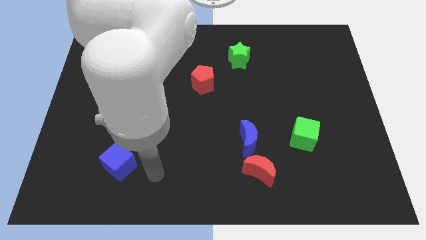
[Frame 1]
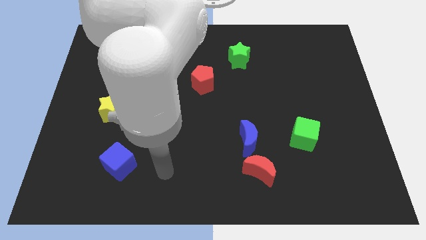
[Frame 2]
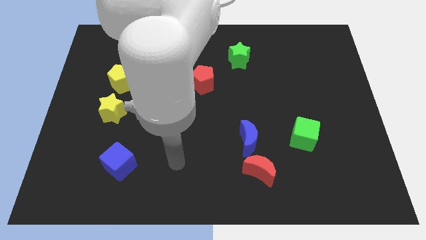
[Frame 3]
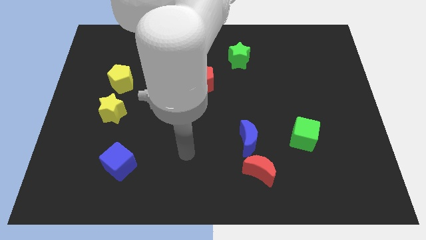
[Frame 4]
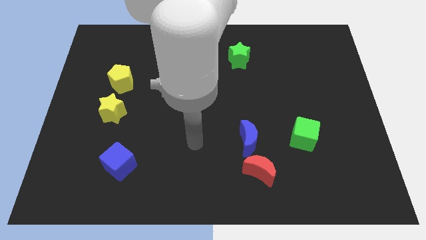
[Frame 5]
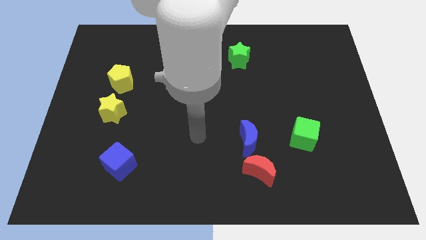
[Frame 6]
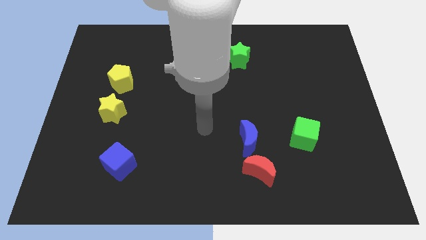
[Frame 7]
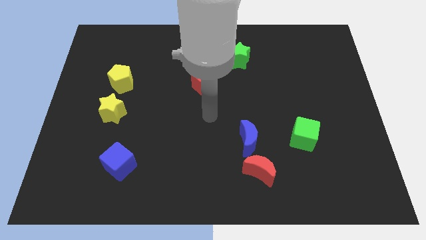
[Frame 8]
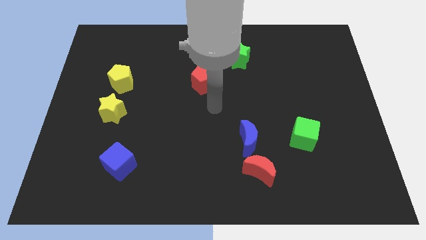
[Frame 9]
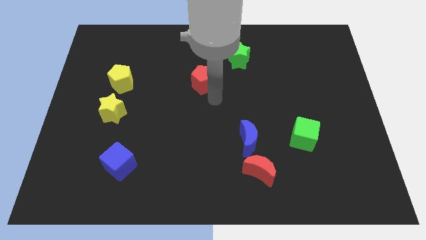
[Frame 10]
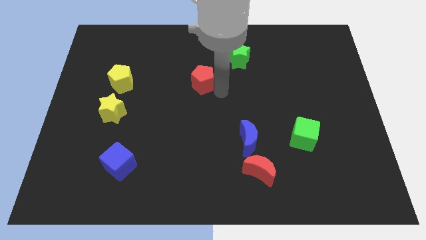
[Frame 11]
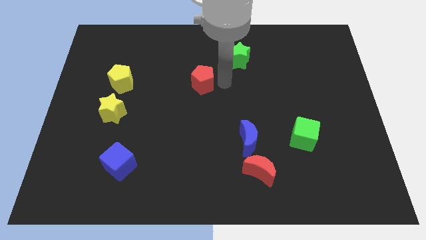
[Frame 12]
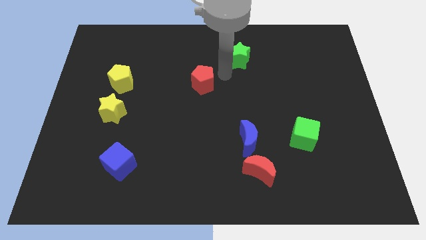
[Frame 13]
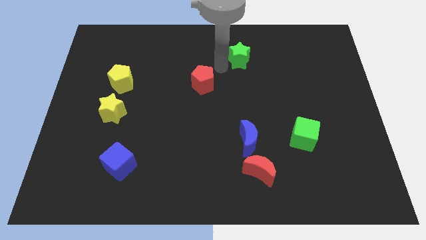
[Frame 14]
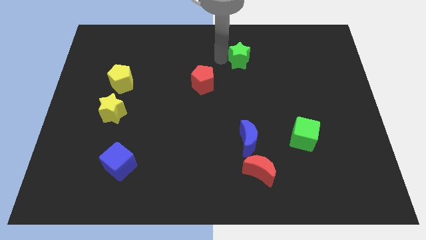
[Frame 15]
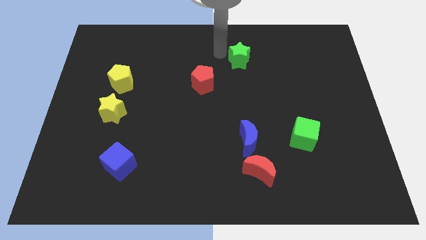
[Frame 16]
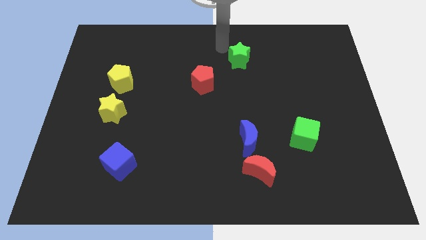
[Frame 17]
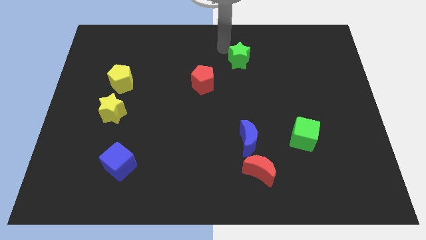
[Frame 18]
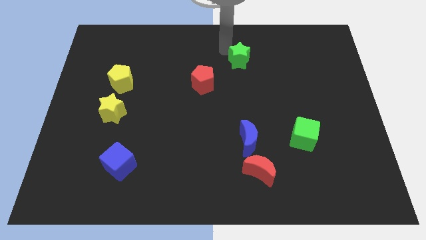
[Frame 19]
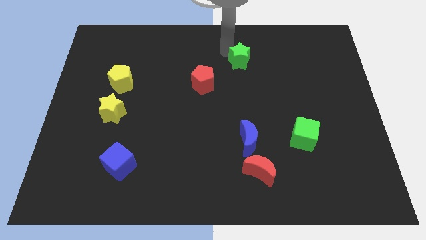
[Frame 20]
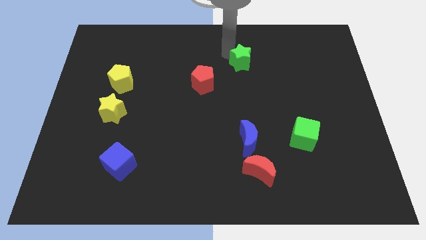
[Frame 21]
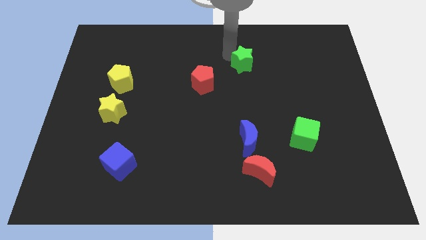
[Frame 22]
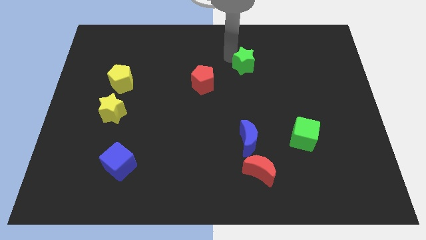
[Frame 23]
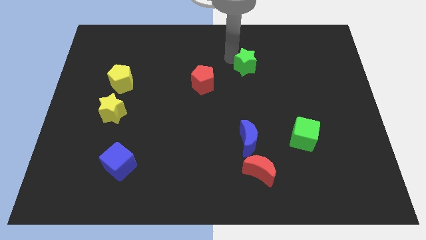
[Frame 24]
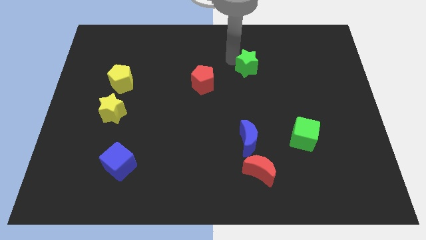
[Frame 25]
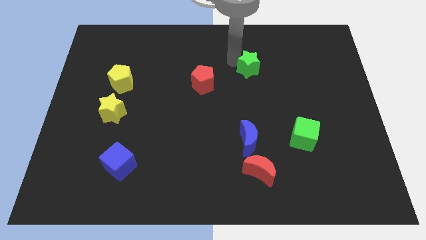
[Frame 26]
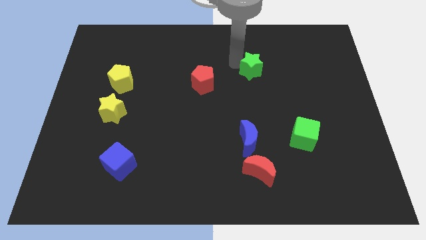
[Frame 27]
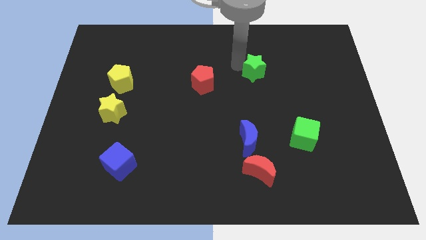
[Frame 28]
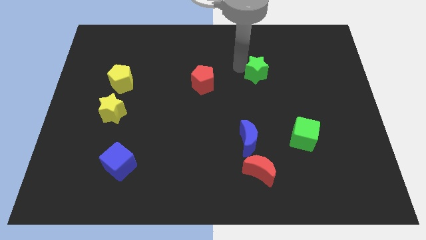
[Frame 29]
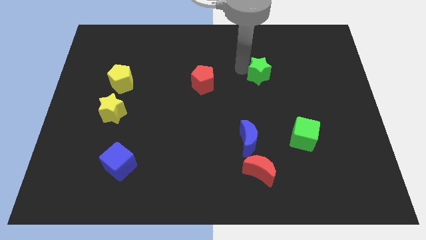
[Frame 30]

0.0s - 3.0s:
push the green star somewhat diagonally downwards and right

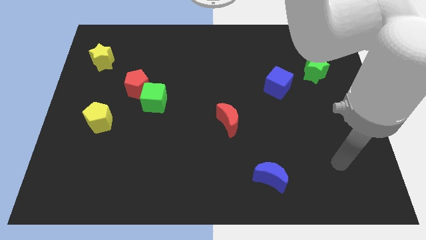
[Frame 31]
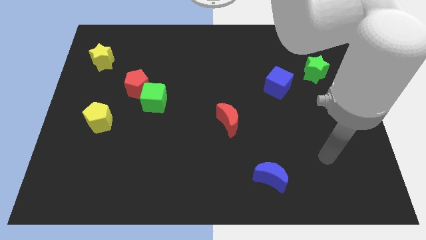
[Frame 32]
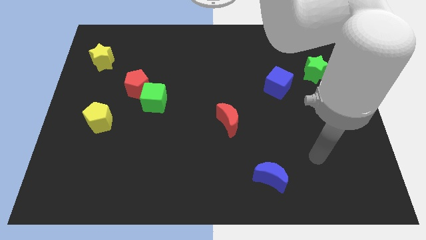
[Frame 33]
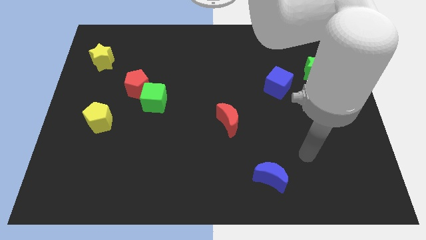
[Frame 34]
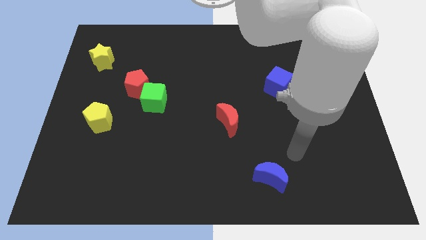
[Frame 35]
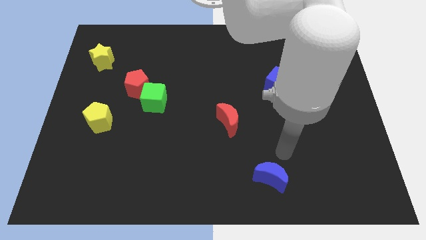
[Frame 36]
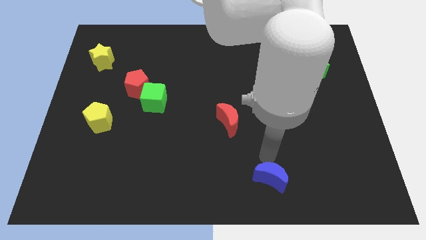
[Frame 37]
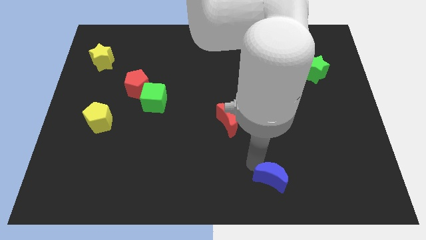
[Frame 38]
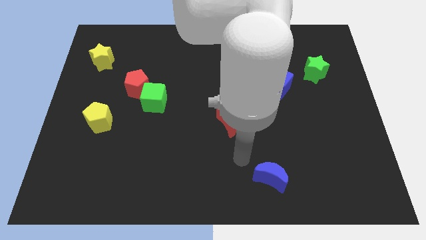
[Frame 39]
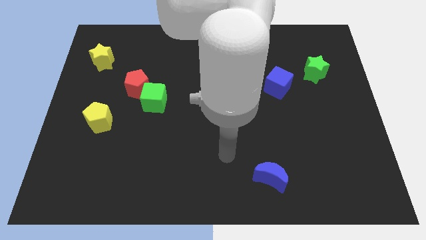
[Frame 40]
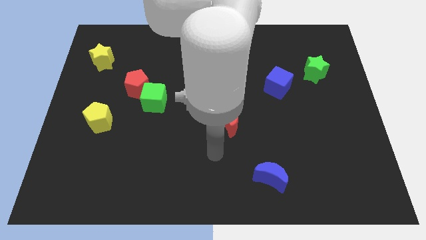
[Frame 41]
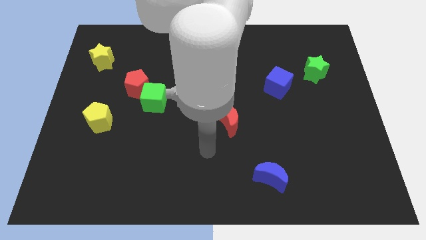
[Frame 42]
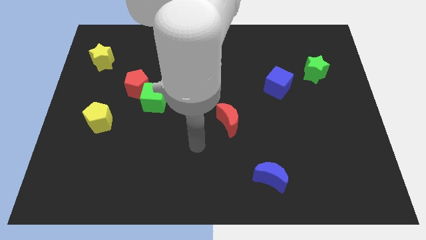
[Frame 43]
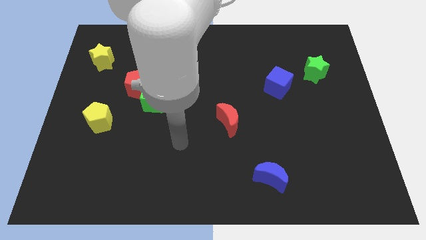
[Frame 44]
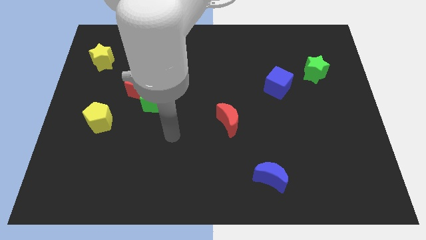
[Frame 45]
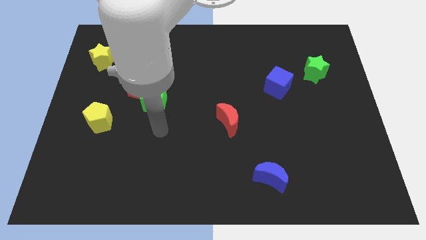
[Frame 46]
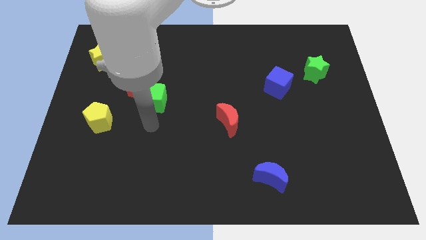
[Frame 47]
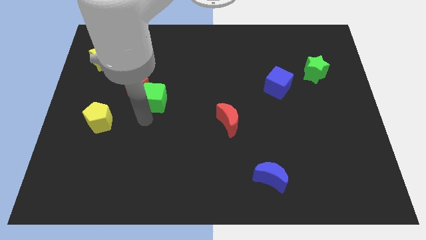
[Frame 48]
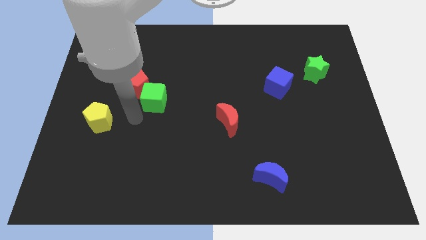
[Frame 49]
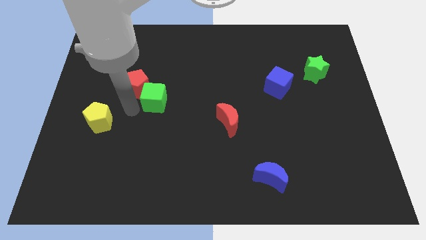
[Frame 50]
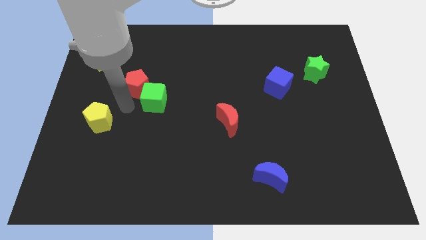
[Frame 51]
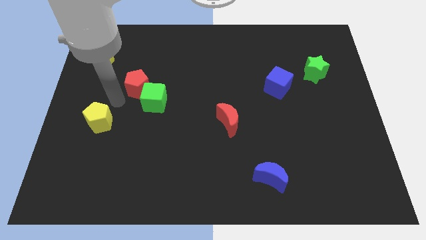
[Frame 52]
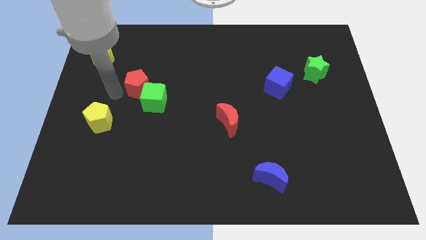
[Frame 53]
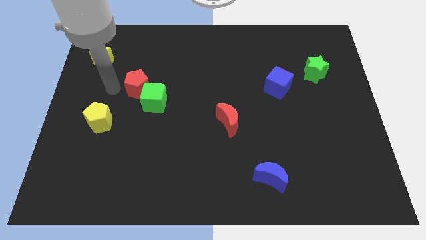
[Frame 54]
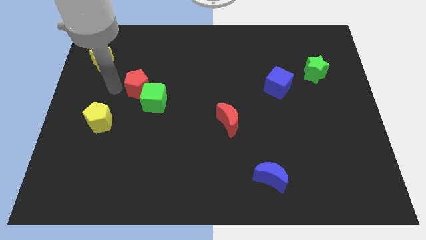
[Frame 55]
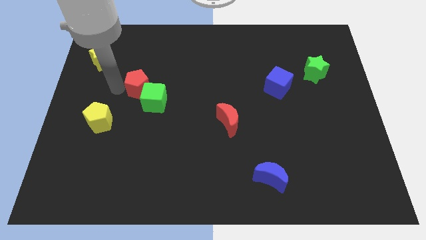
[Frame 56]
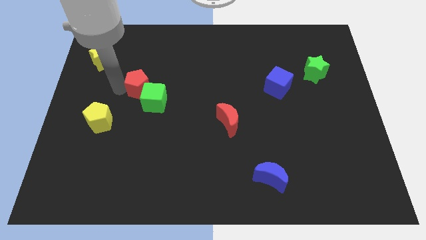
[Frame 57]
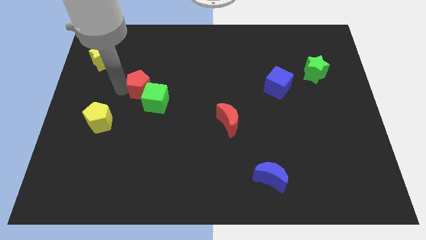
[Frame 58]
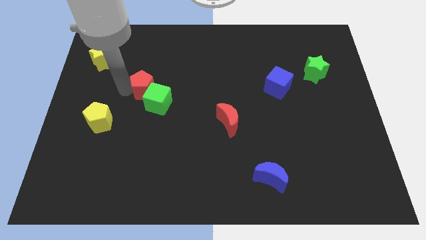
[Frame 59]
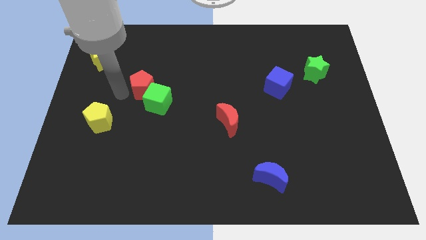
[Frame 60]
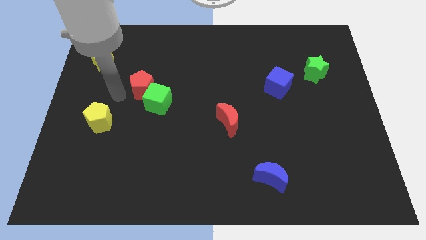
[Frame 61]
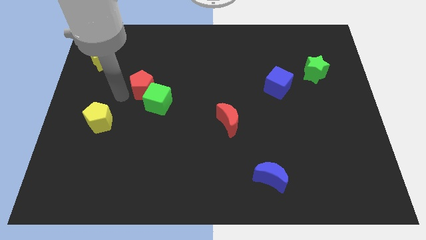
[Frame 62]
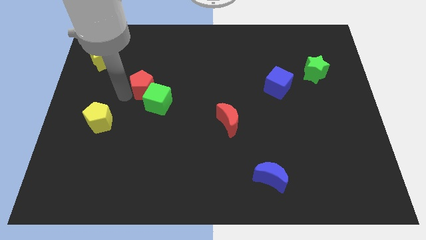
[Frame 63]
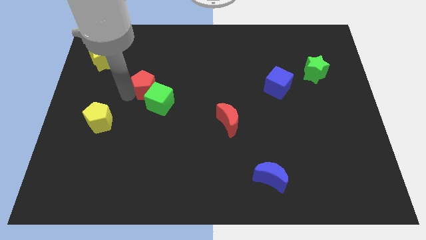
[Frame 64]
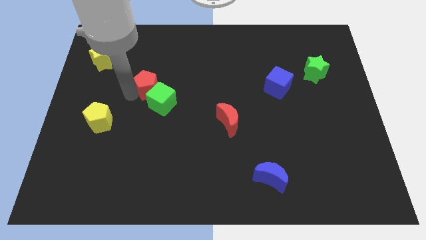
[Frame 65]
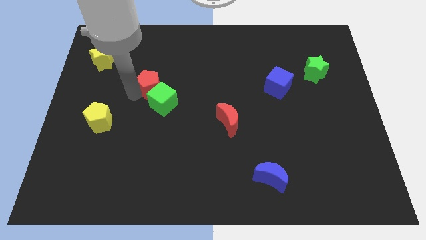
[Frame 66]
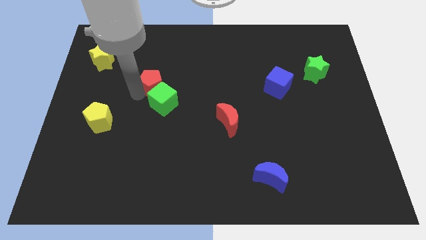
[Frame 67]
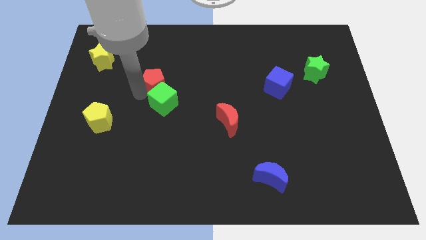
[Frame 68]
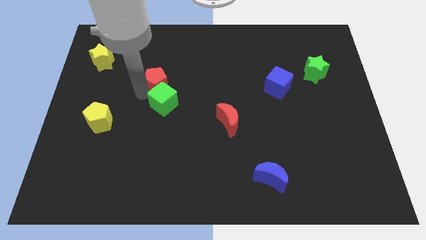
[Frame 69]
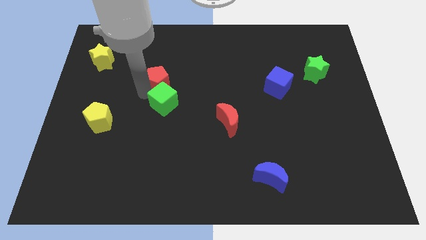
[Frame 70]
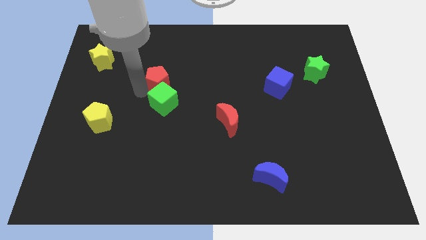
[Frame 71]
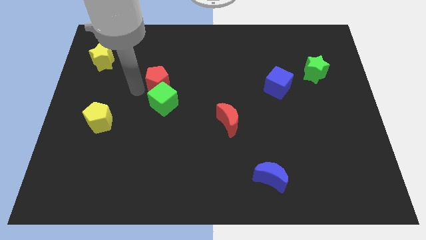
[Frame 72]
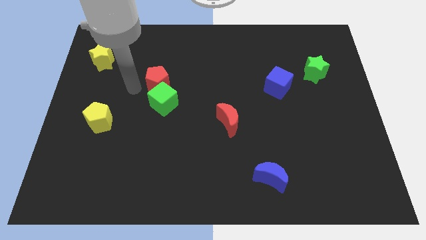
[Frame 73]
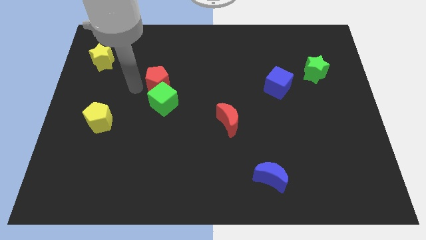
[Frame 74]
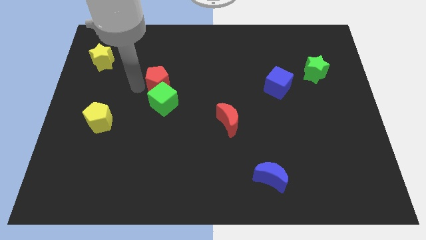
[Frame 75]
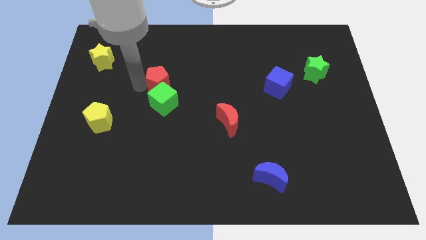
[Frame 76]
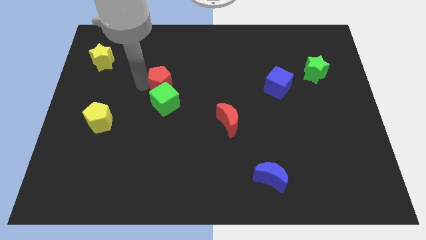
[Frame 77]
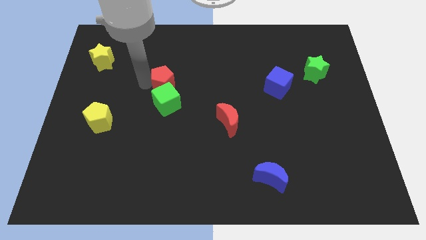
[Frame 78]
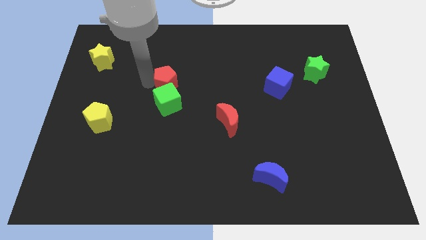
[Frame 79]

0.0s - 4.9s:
push the red pentagon to the right slightly

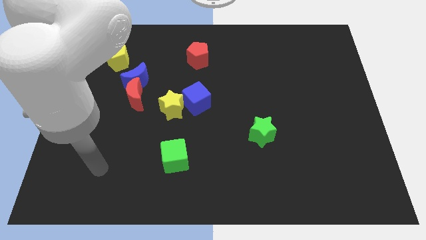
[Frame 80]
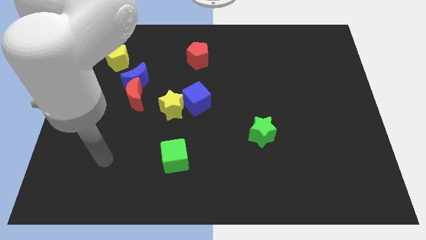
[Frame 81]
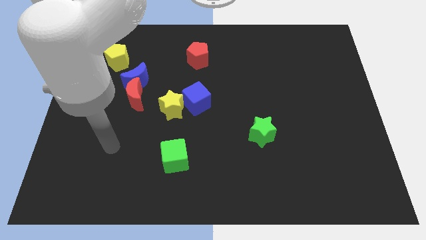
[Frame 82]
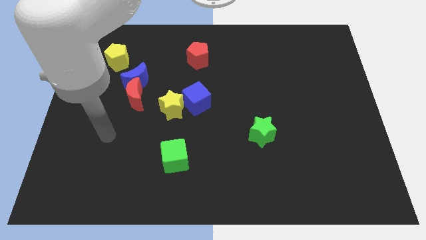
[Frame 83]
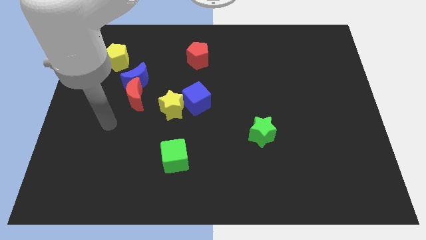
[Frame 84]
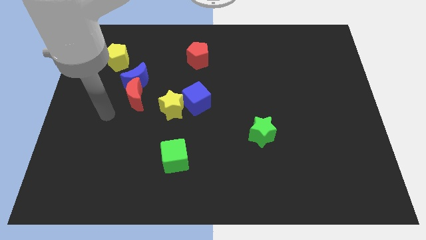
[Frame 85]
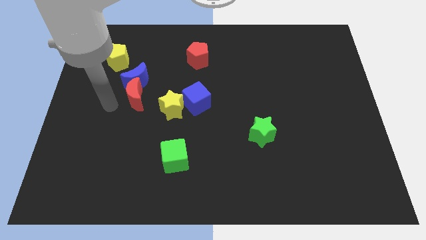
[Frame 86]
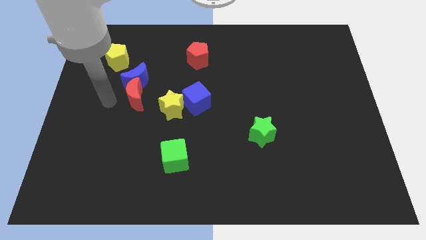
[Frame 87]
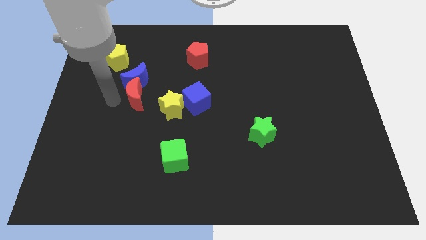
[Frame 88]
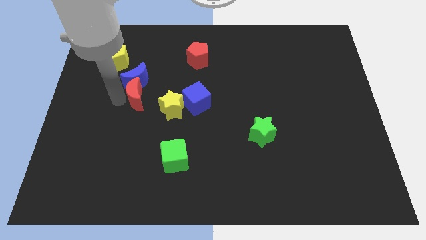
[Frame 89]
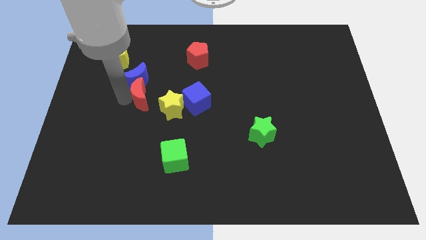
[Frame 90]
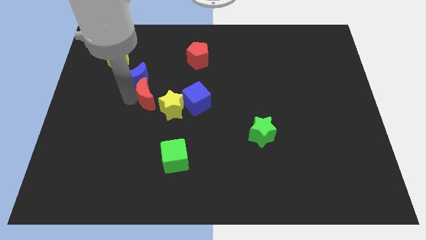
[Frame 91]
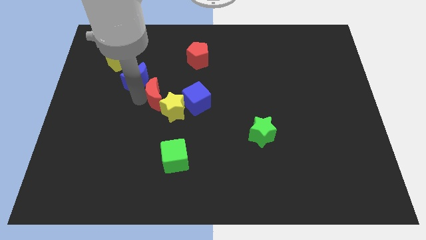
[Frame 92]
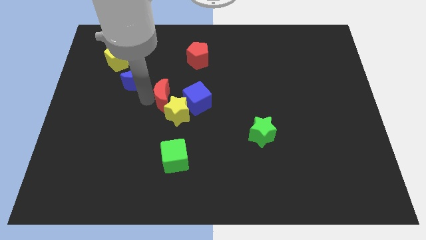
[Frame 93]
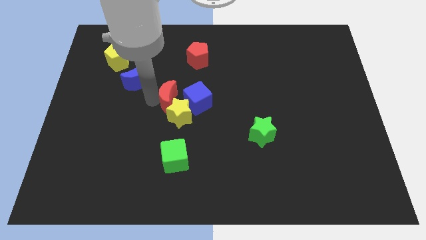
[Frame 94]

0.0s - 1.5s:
push the red moon slightly right
